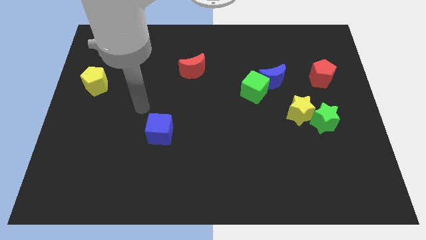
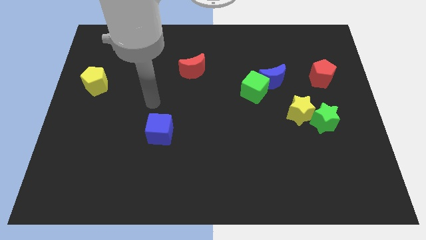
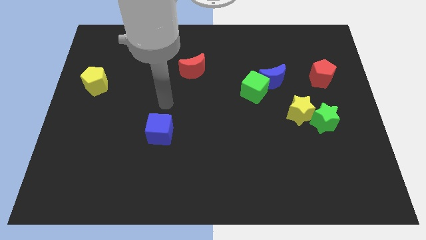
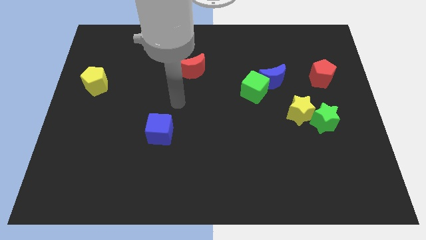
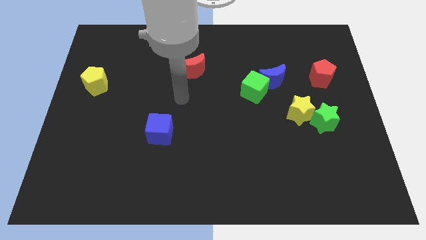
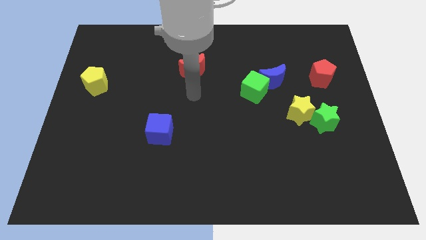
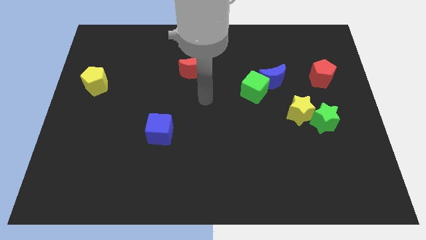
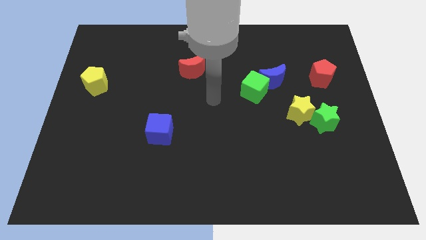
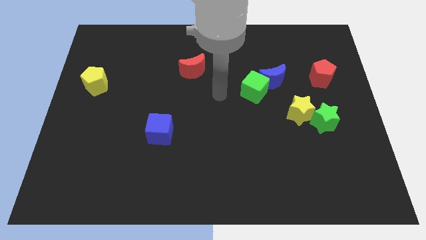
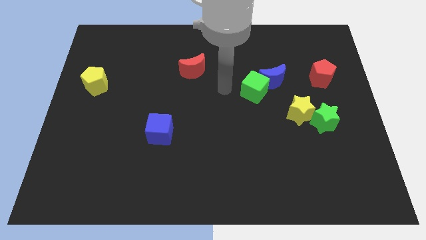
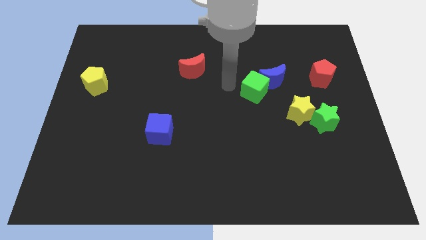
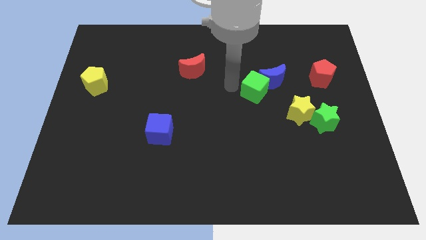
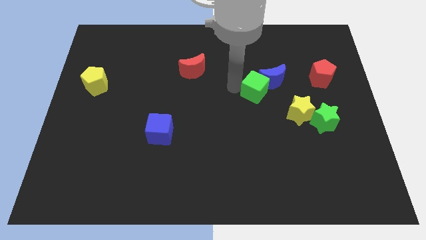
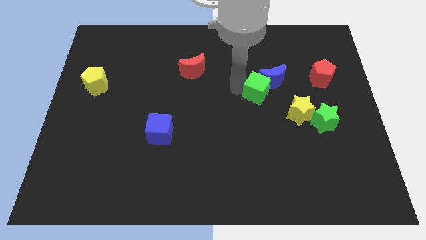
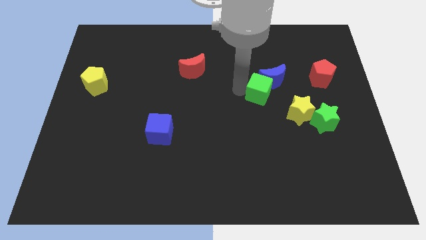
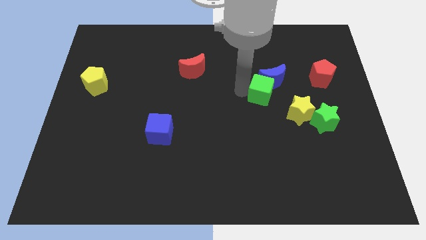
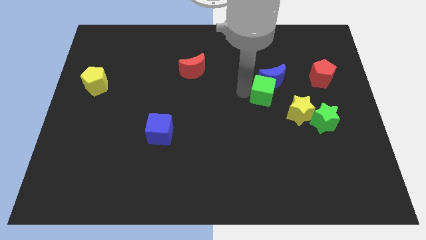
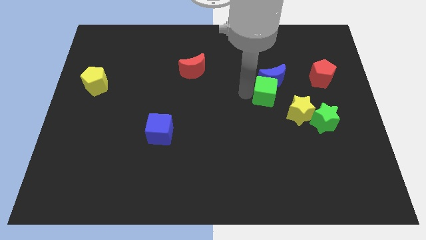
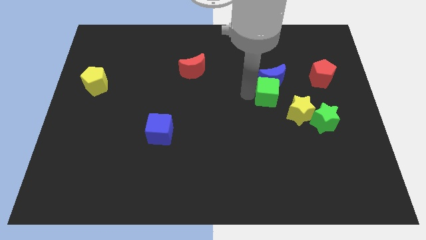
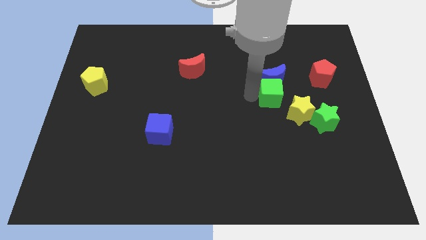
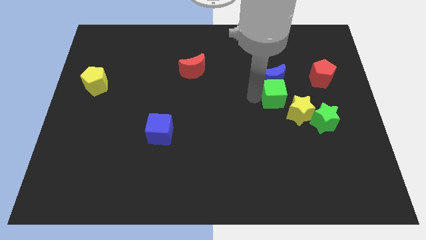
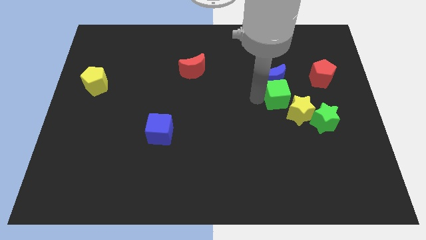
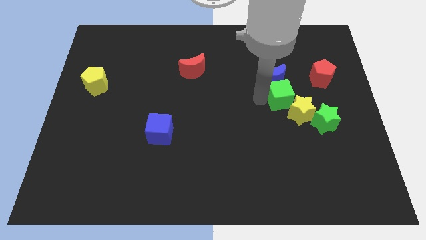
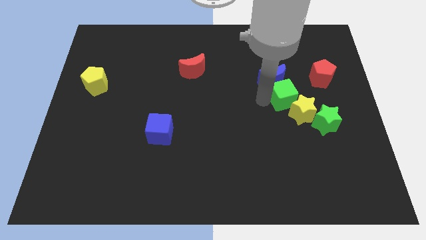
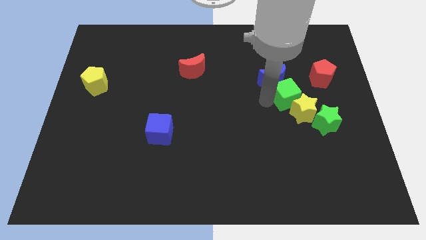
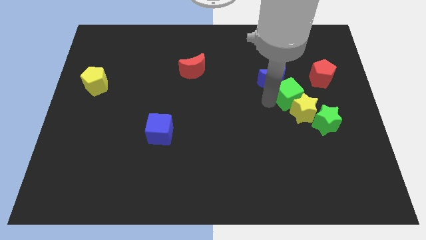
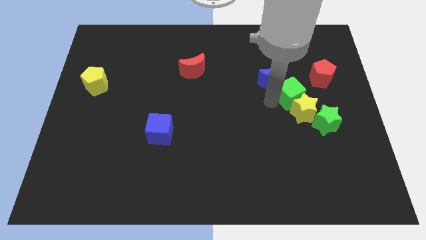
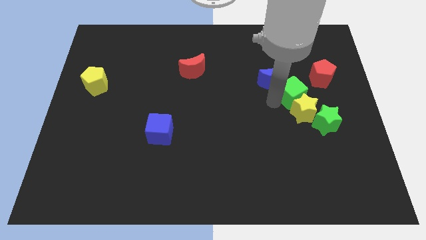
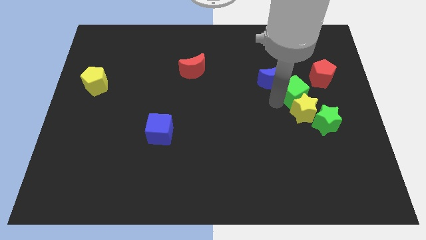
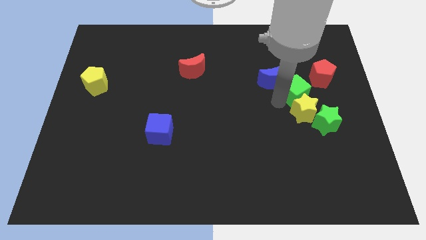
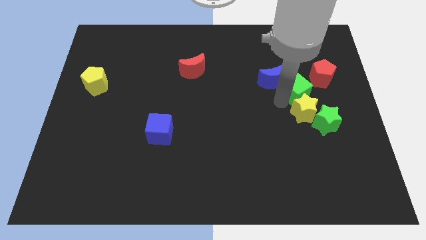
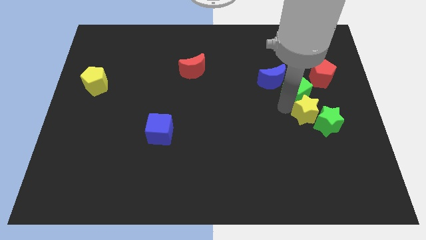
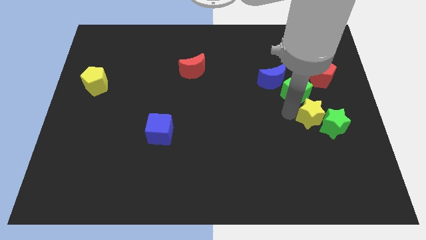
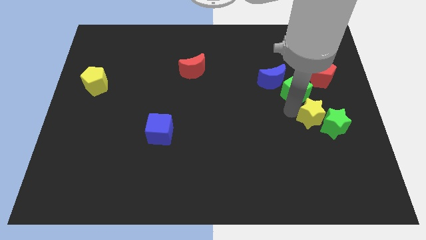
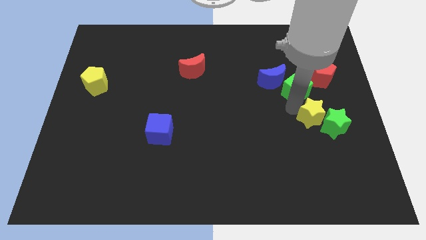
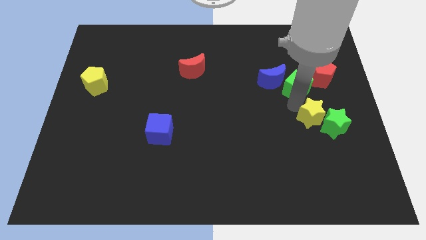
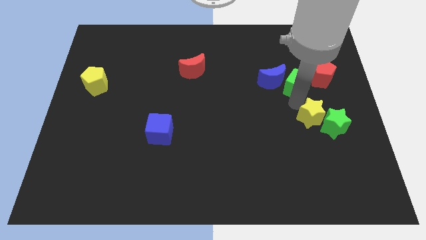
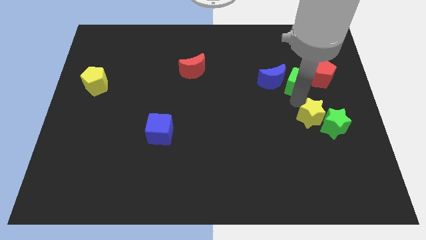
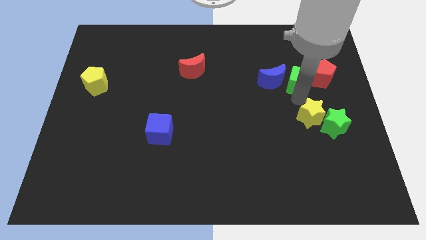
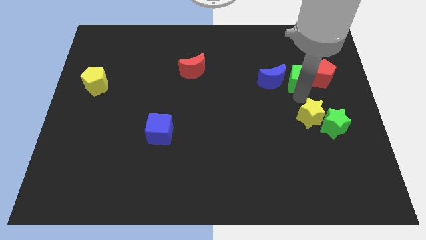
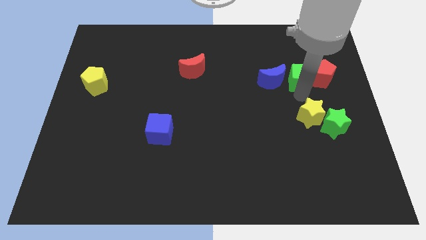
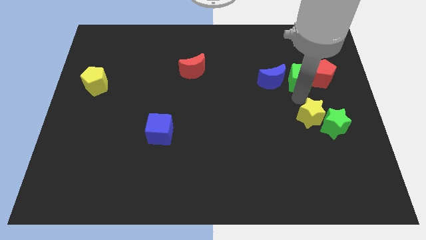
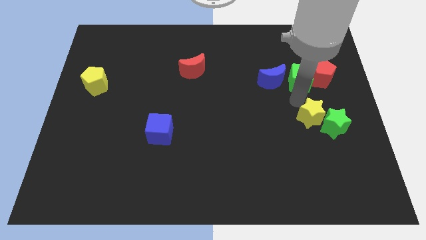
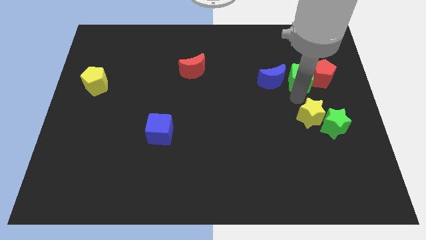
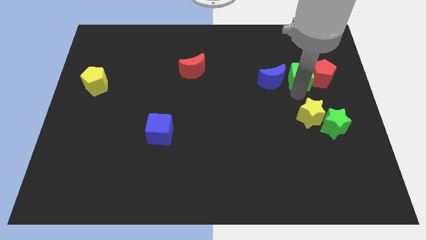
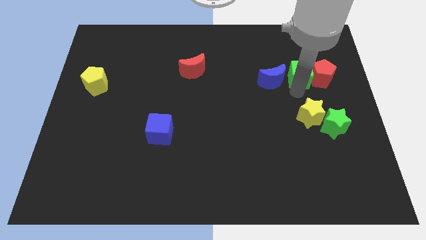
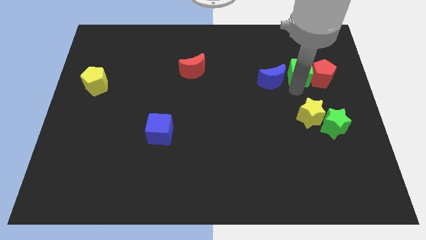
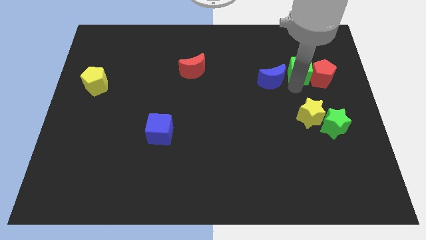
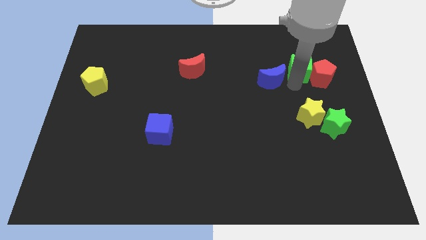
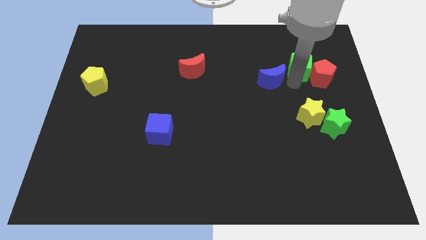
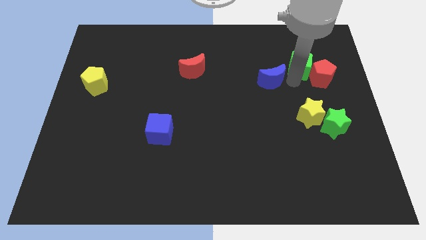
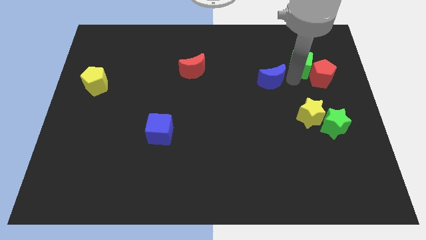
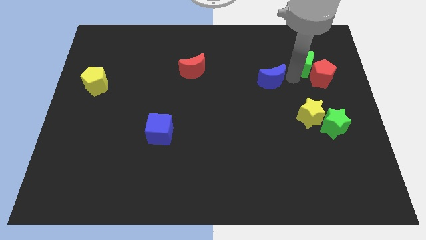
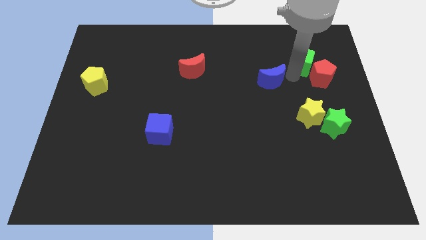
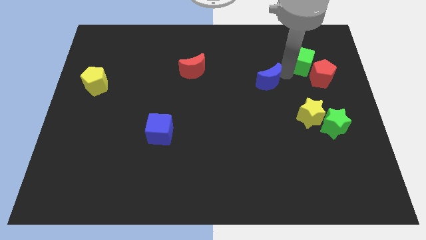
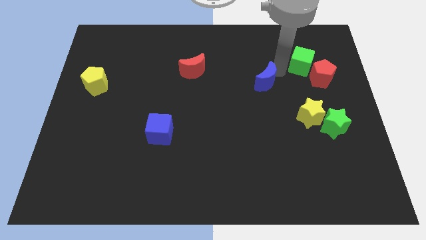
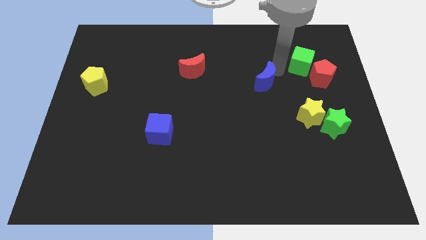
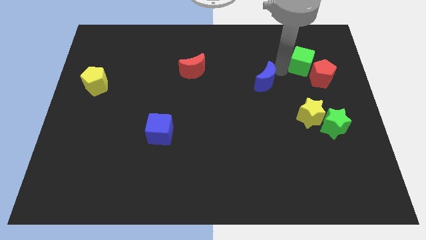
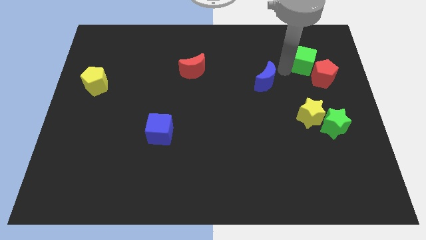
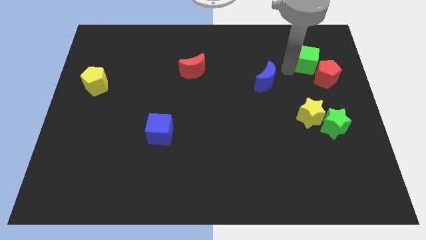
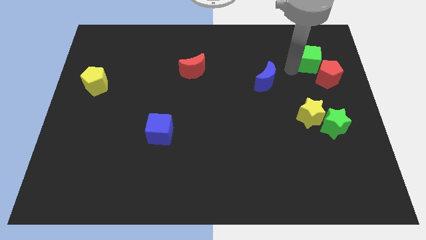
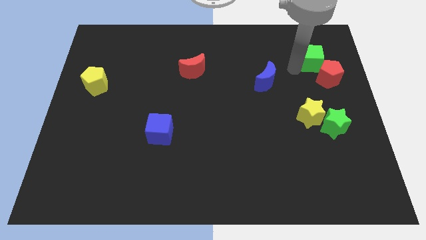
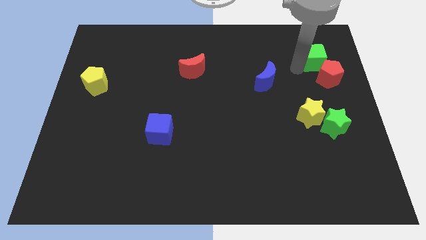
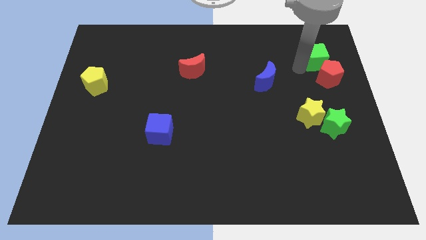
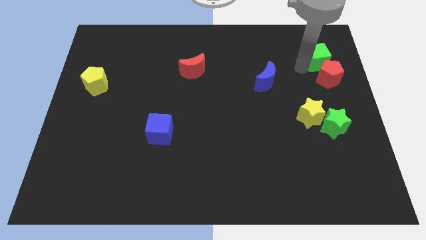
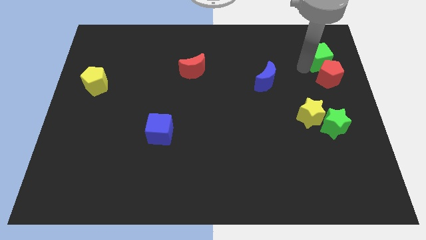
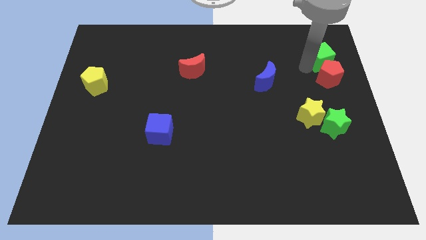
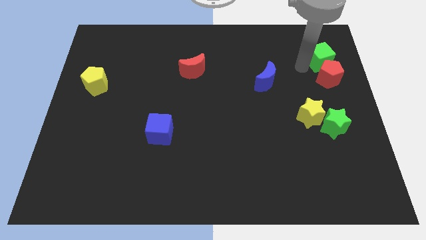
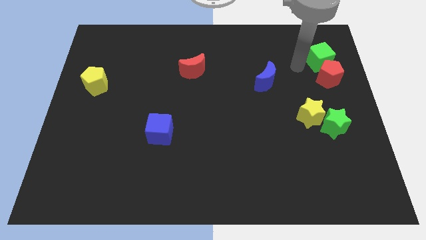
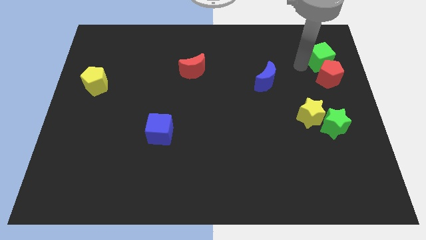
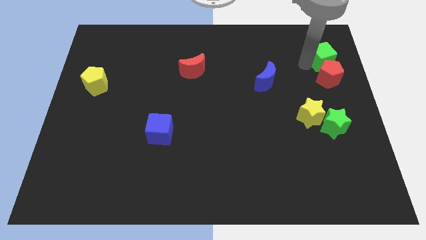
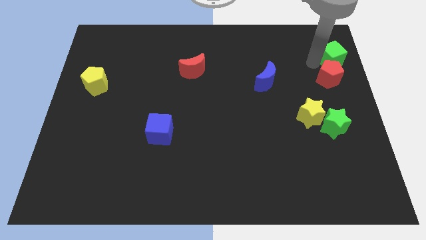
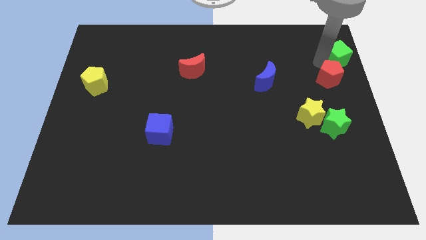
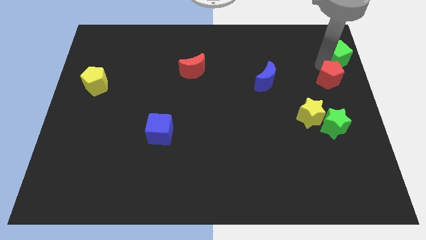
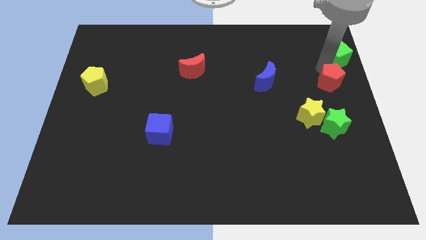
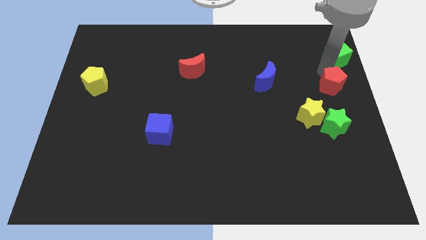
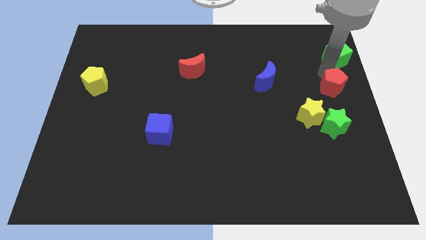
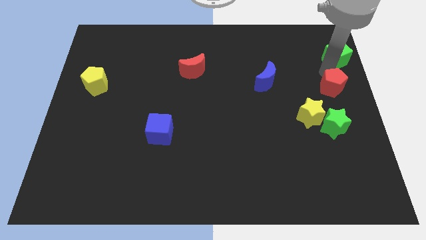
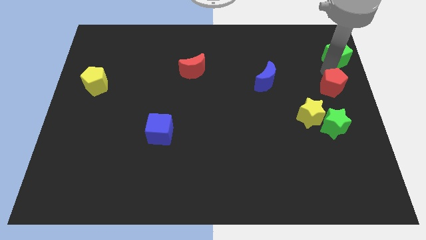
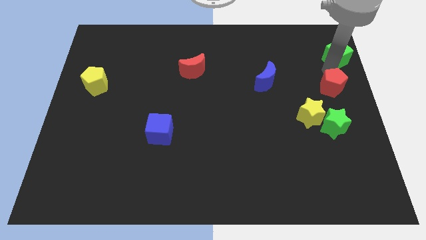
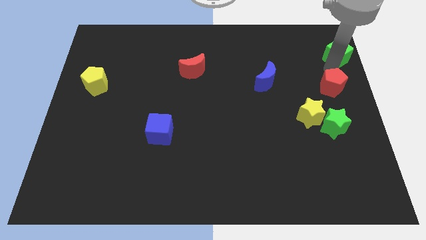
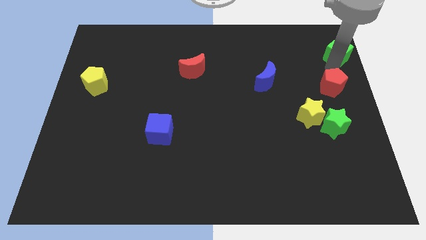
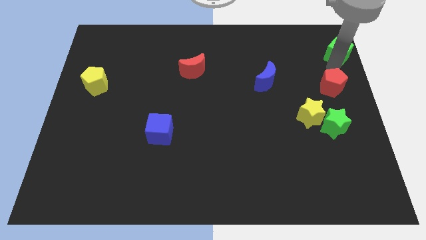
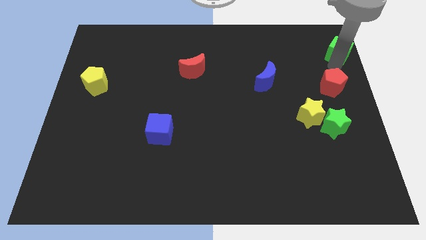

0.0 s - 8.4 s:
slide the green cube to the top right of the board
